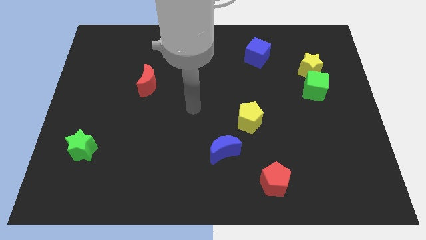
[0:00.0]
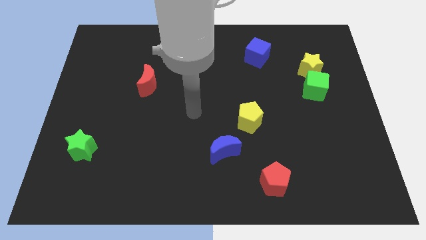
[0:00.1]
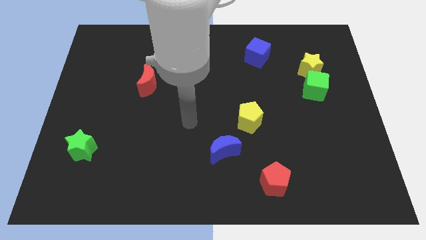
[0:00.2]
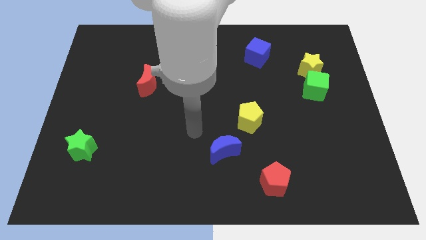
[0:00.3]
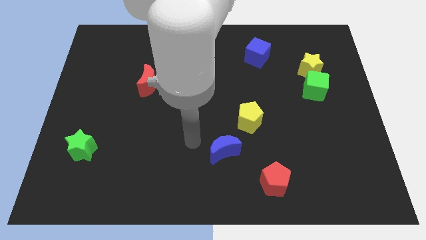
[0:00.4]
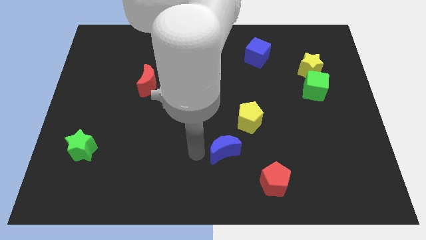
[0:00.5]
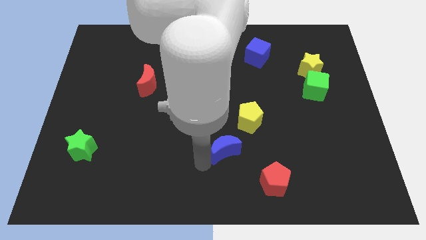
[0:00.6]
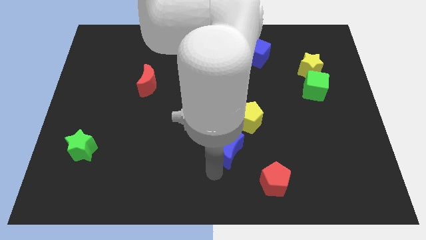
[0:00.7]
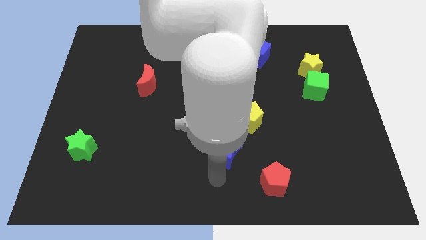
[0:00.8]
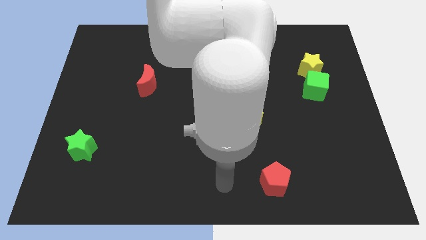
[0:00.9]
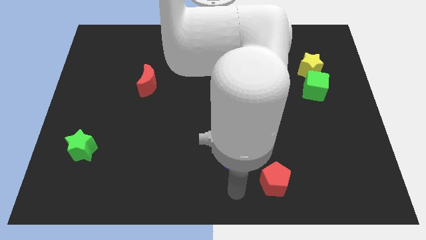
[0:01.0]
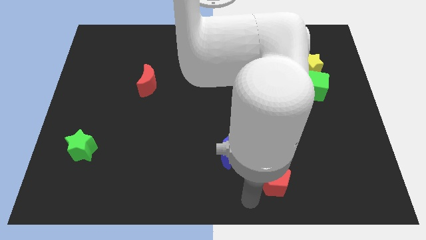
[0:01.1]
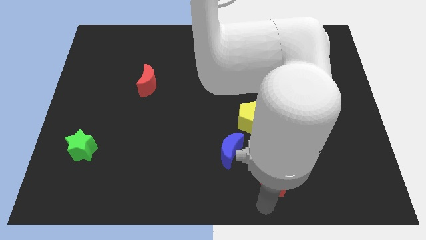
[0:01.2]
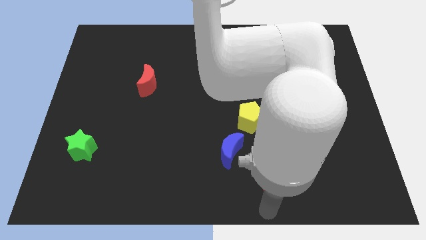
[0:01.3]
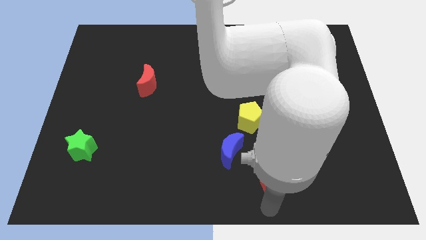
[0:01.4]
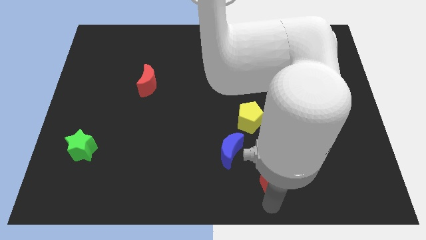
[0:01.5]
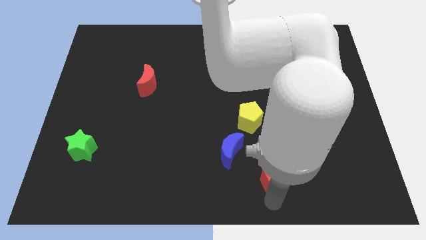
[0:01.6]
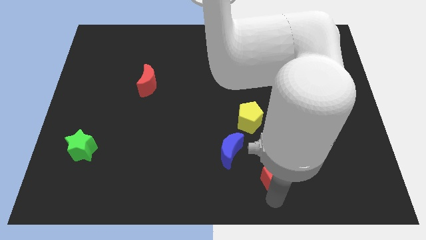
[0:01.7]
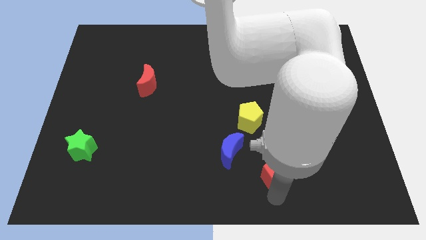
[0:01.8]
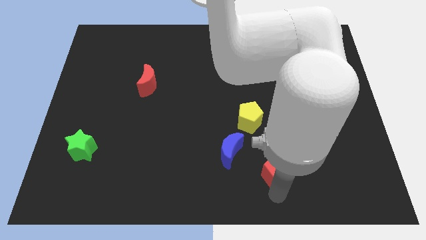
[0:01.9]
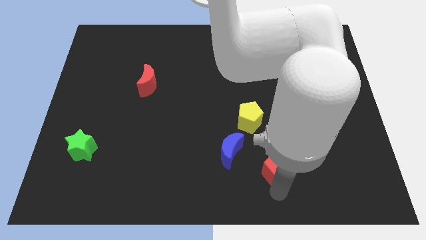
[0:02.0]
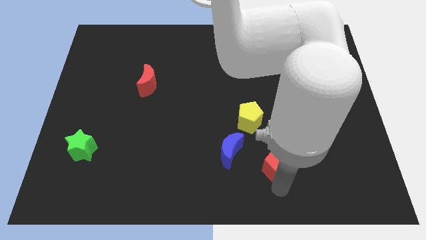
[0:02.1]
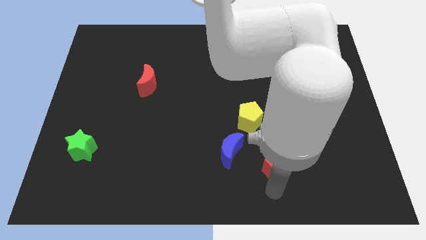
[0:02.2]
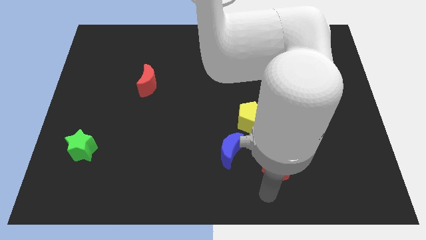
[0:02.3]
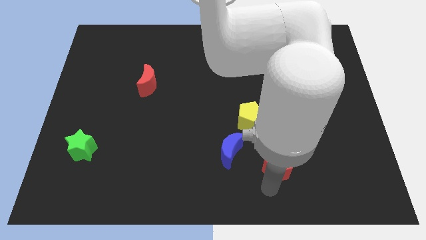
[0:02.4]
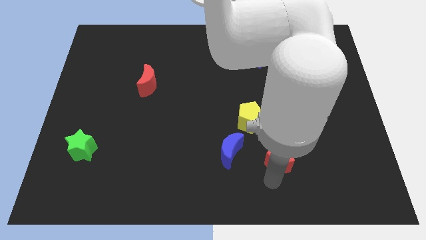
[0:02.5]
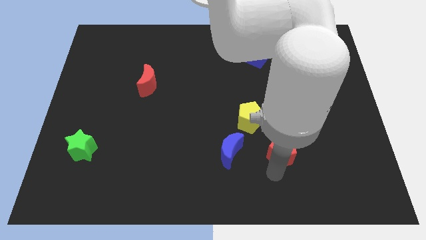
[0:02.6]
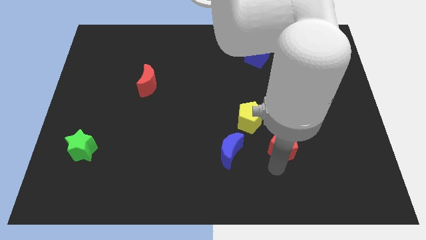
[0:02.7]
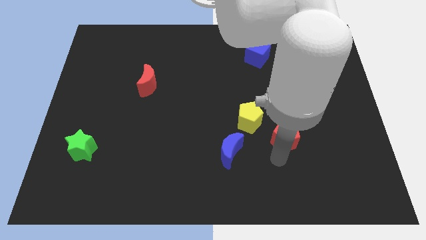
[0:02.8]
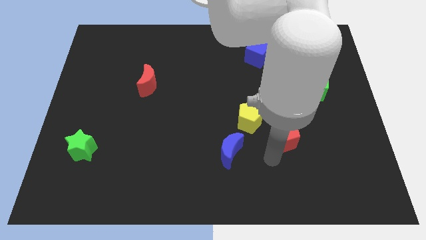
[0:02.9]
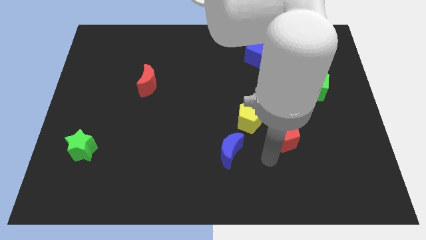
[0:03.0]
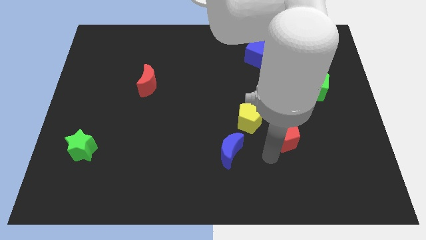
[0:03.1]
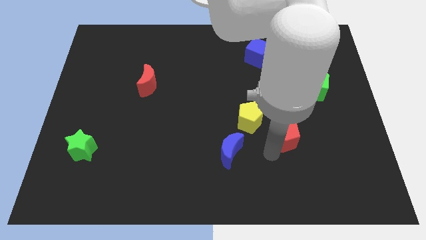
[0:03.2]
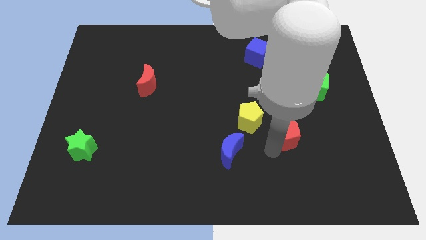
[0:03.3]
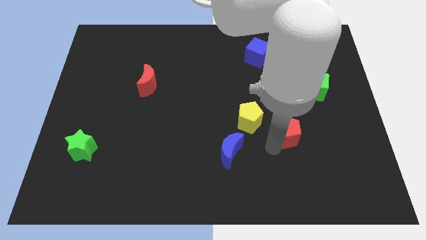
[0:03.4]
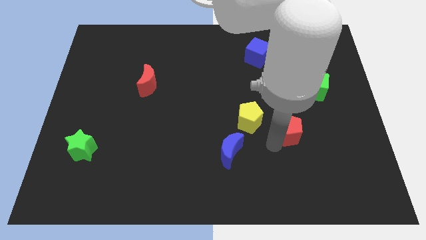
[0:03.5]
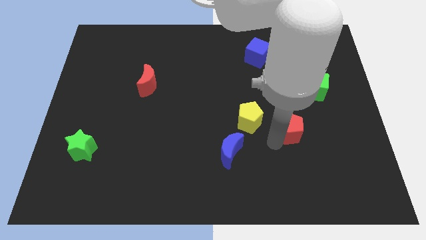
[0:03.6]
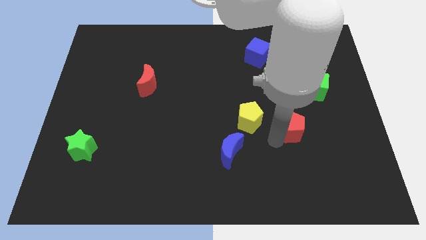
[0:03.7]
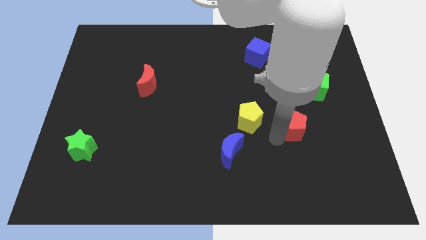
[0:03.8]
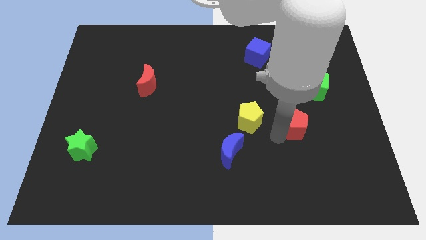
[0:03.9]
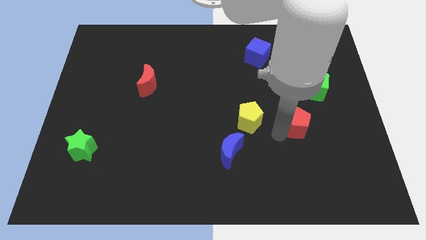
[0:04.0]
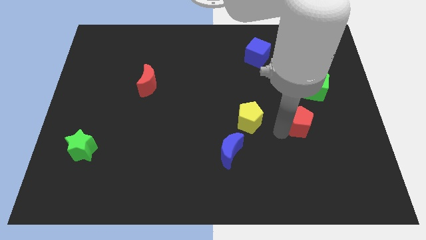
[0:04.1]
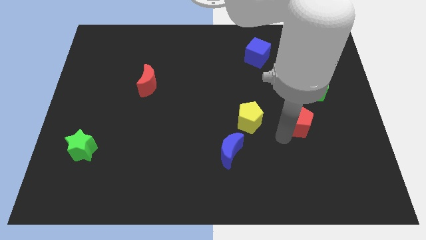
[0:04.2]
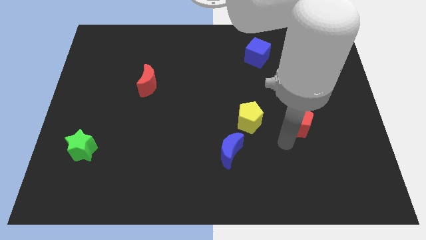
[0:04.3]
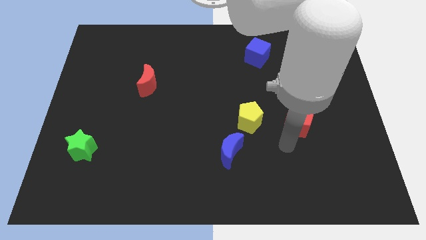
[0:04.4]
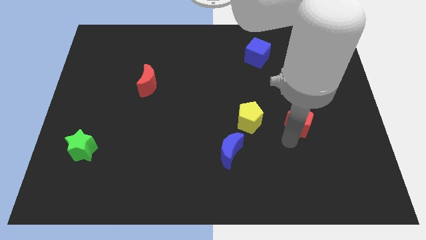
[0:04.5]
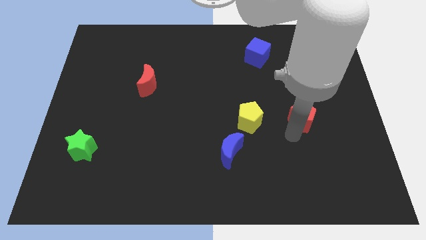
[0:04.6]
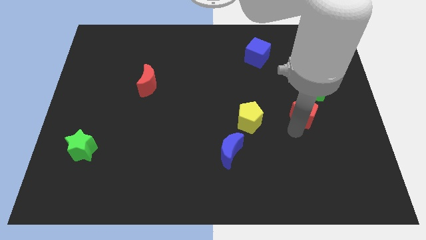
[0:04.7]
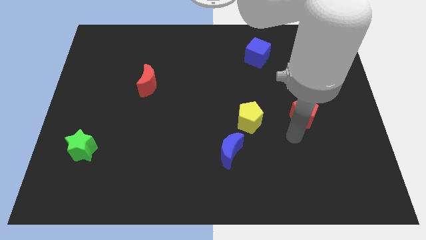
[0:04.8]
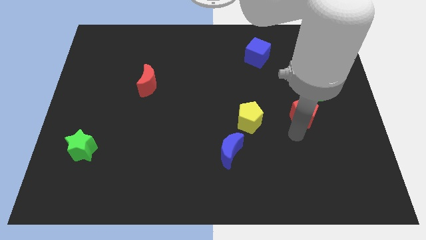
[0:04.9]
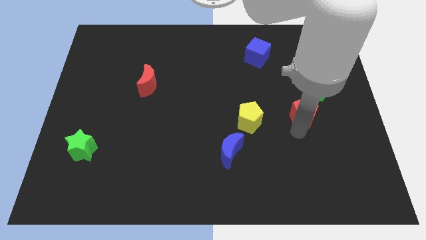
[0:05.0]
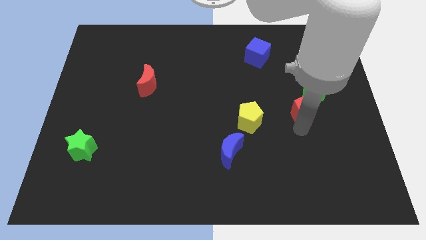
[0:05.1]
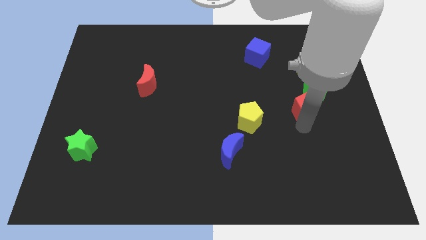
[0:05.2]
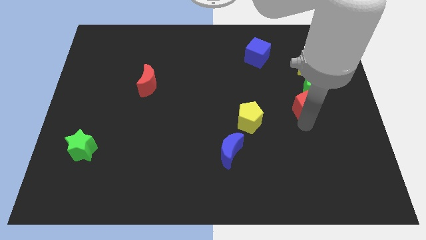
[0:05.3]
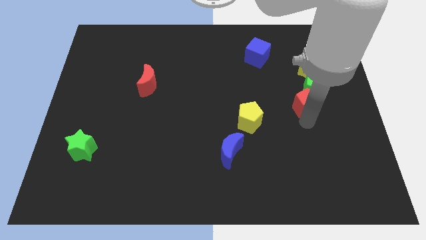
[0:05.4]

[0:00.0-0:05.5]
slide the red pentagon next to the green cube

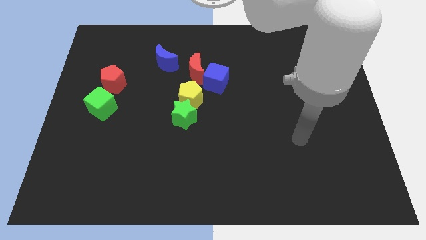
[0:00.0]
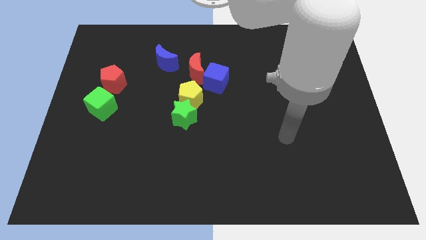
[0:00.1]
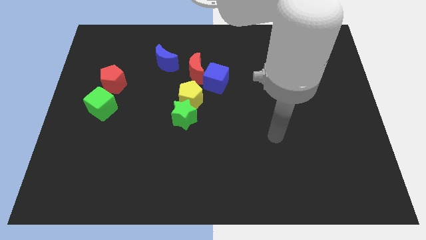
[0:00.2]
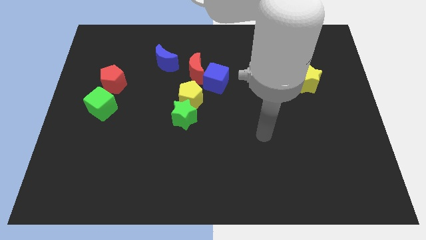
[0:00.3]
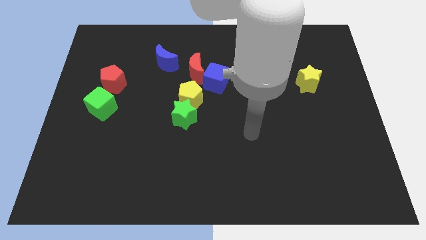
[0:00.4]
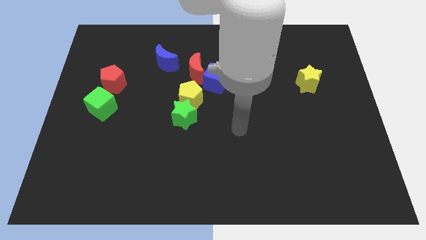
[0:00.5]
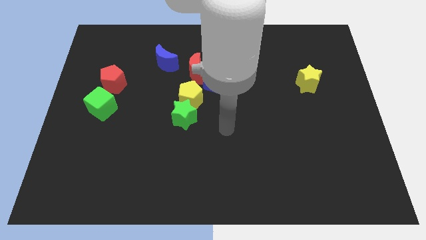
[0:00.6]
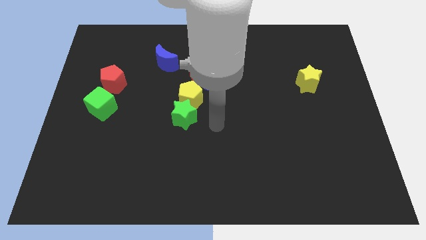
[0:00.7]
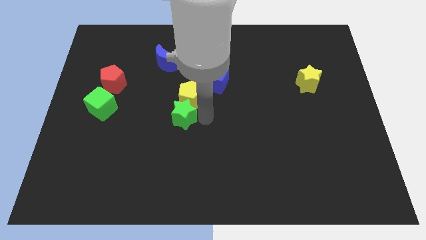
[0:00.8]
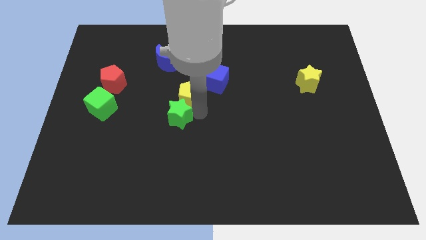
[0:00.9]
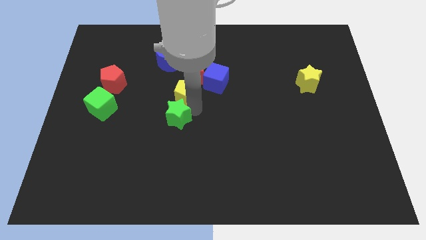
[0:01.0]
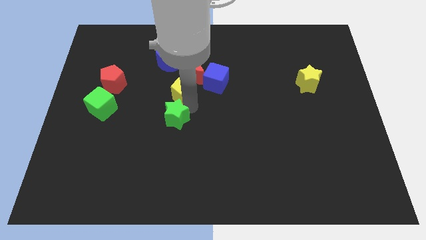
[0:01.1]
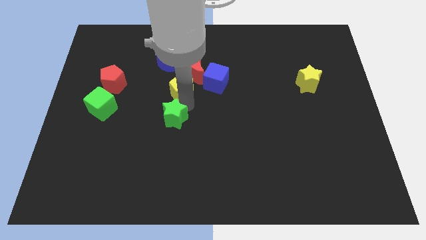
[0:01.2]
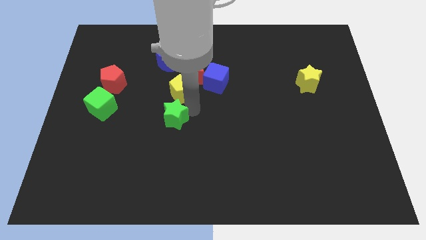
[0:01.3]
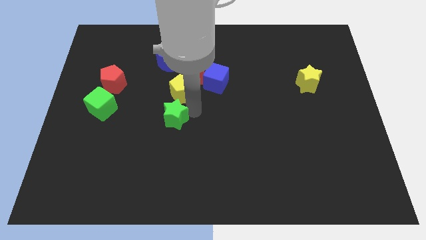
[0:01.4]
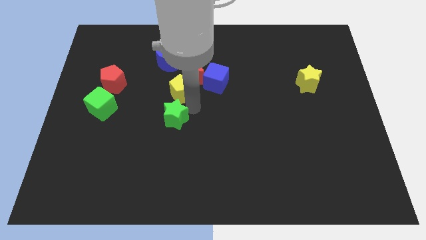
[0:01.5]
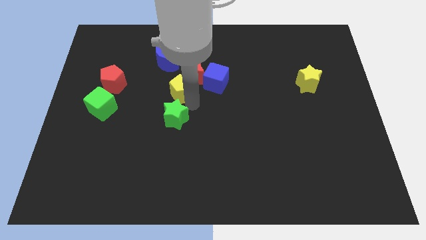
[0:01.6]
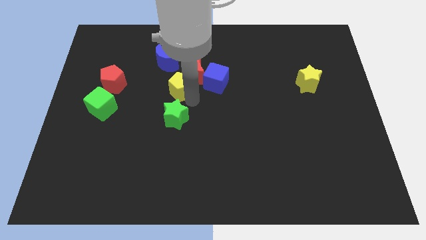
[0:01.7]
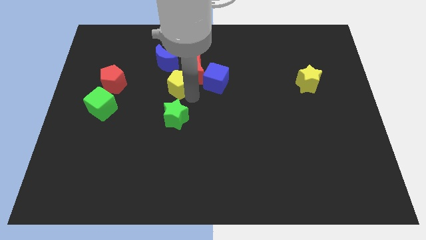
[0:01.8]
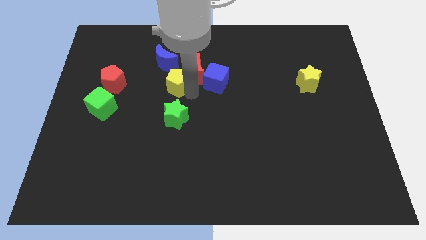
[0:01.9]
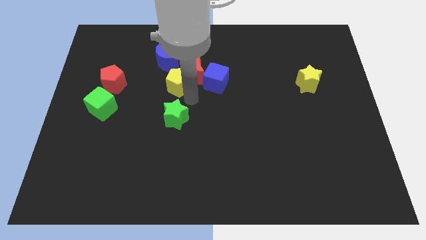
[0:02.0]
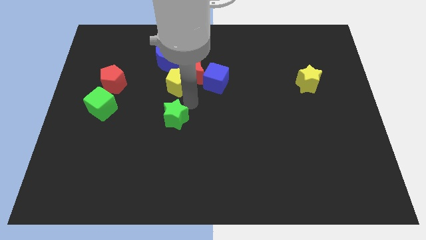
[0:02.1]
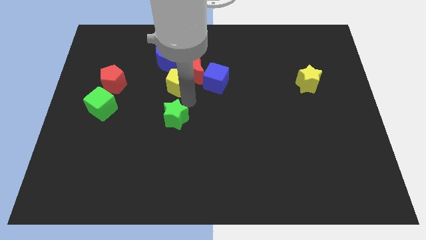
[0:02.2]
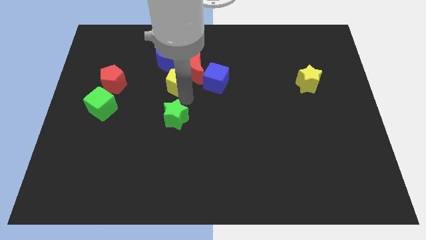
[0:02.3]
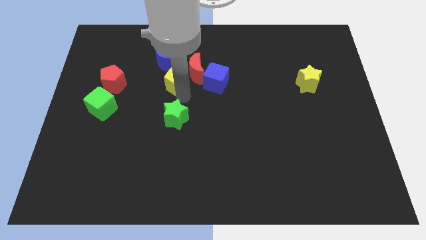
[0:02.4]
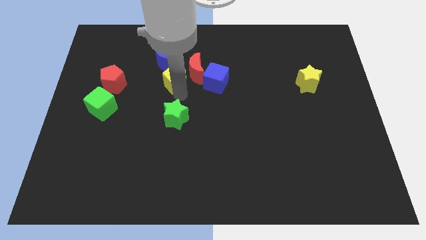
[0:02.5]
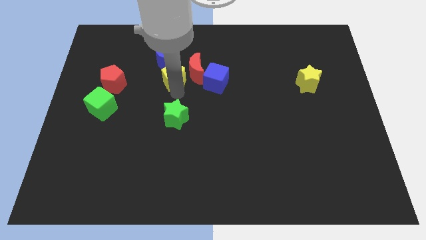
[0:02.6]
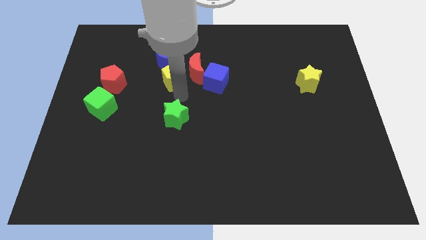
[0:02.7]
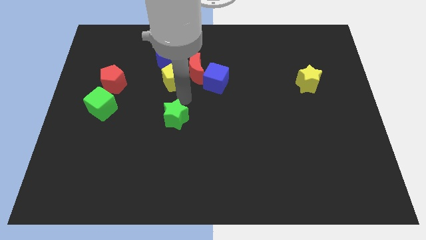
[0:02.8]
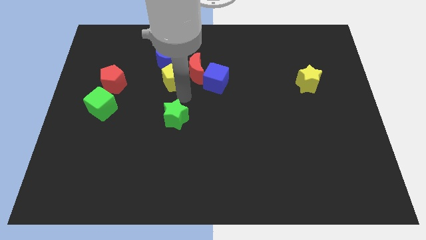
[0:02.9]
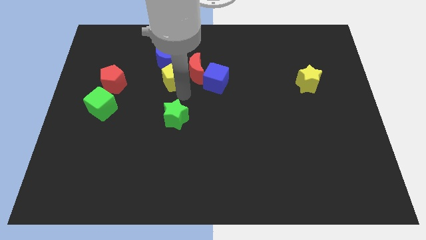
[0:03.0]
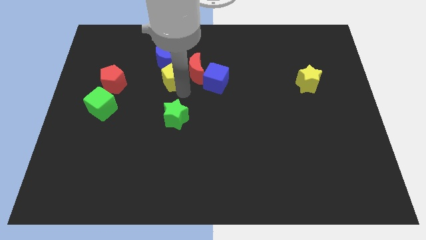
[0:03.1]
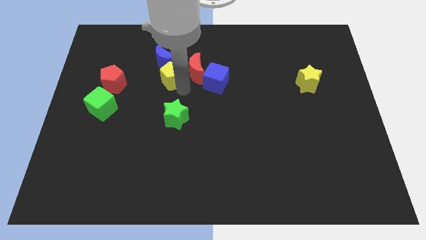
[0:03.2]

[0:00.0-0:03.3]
move the yellow pentagon towards the blue moon
